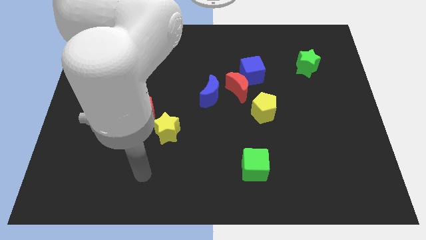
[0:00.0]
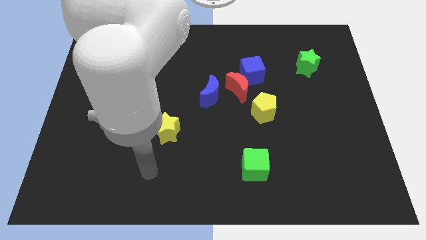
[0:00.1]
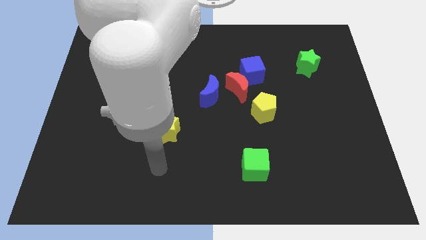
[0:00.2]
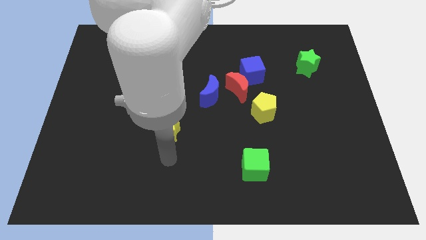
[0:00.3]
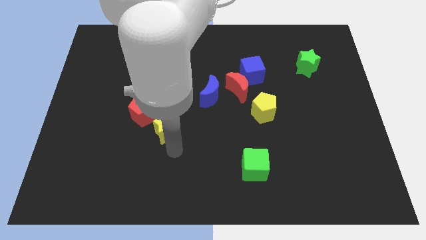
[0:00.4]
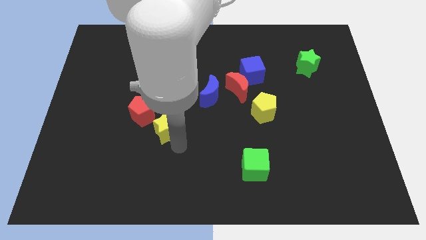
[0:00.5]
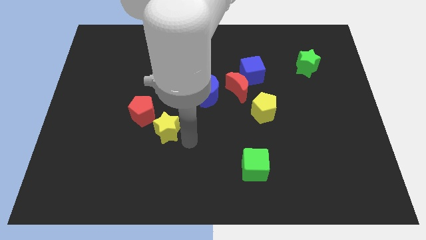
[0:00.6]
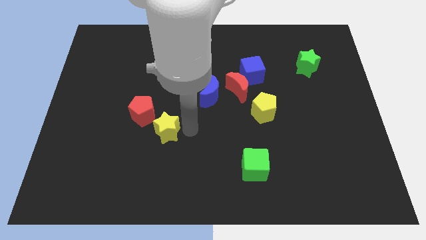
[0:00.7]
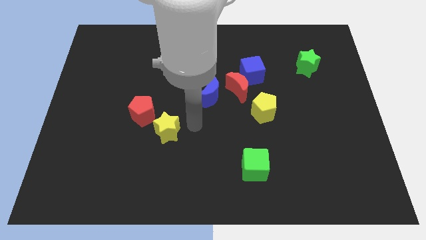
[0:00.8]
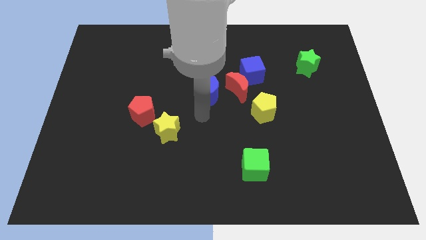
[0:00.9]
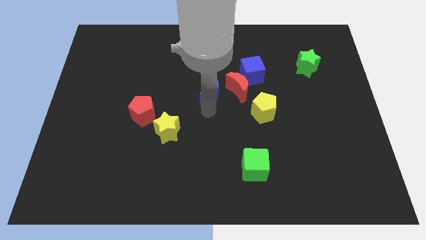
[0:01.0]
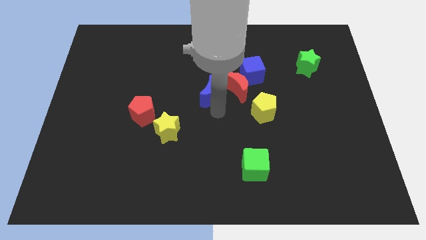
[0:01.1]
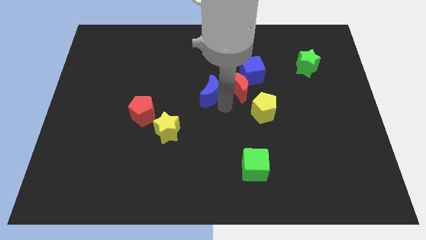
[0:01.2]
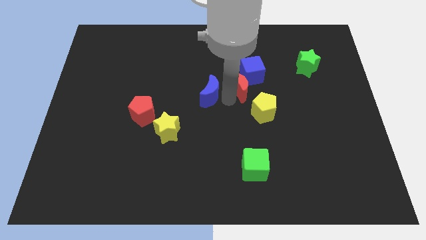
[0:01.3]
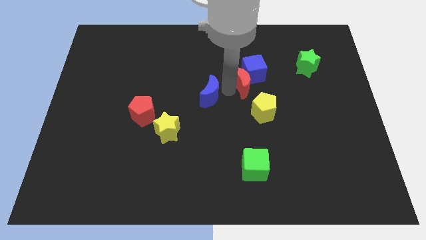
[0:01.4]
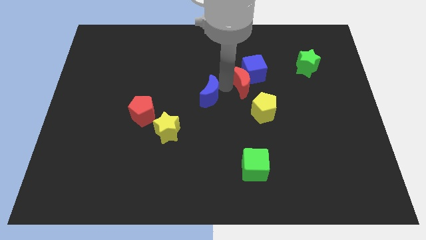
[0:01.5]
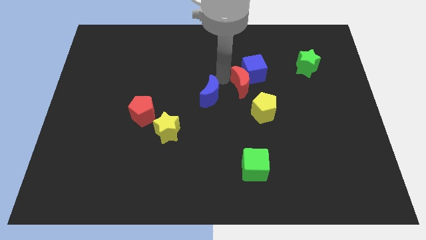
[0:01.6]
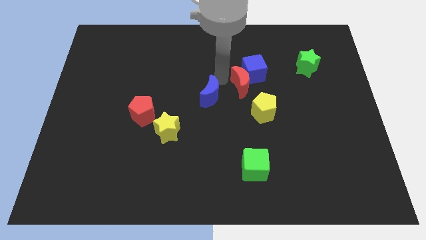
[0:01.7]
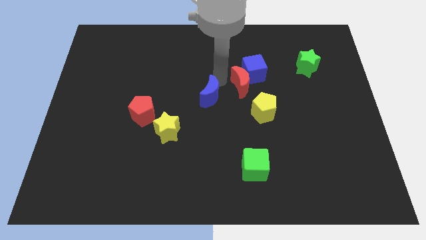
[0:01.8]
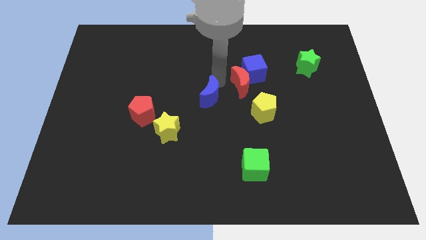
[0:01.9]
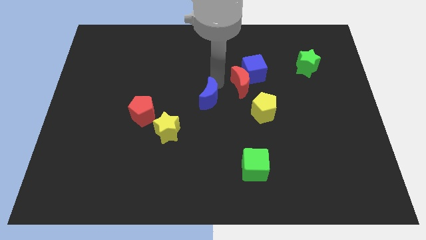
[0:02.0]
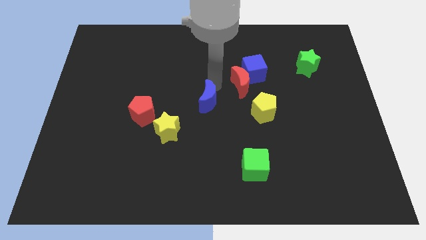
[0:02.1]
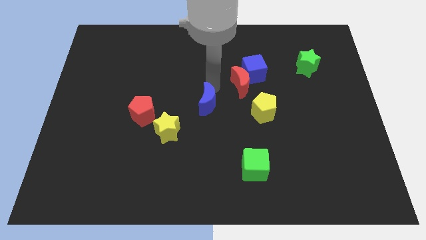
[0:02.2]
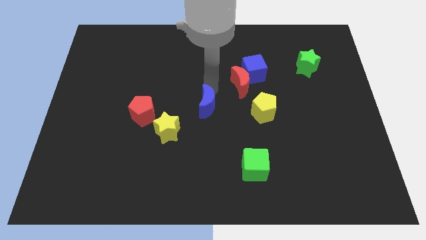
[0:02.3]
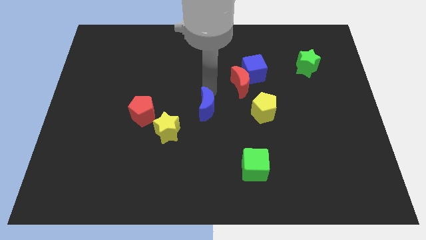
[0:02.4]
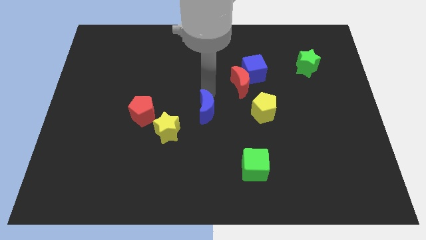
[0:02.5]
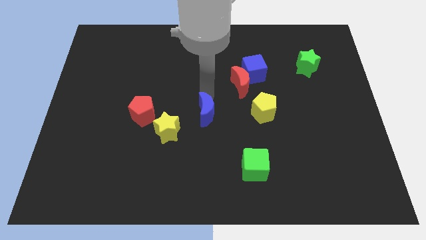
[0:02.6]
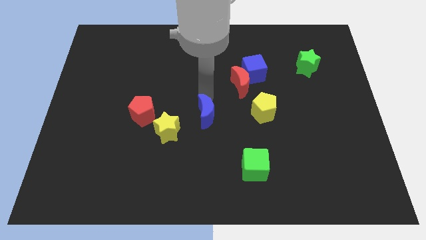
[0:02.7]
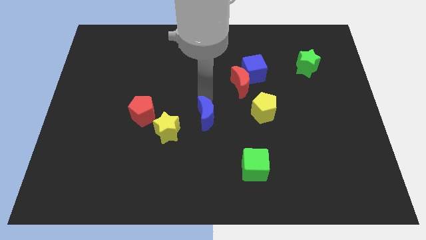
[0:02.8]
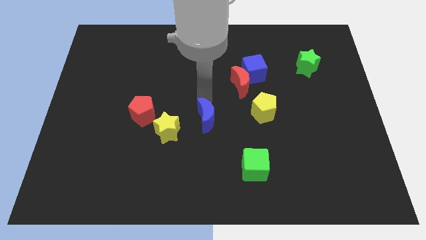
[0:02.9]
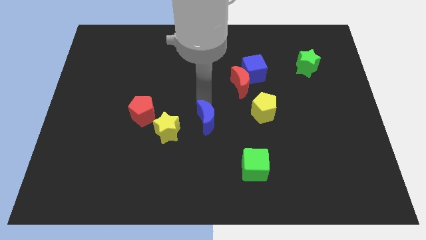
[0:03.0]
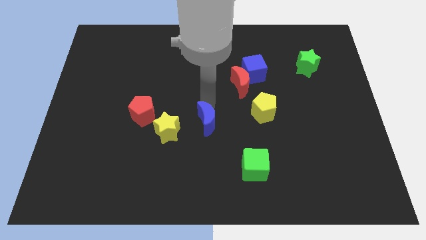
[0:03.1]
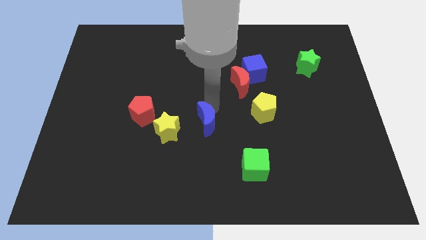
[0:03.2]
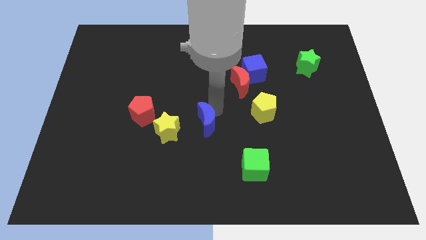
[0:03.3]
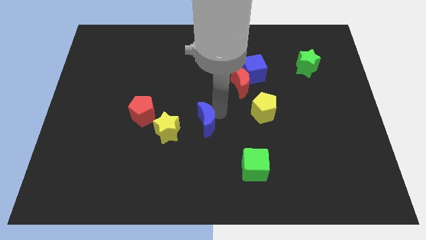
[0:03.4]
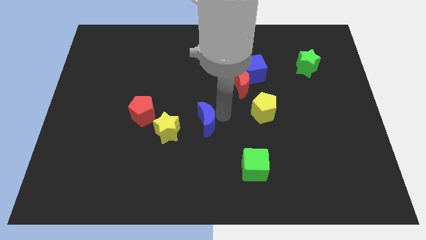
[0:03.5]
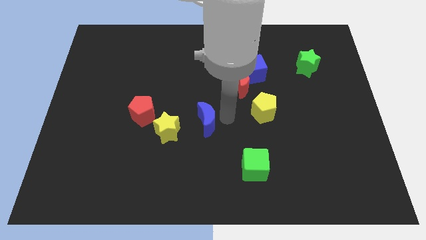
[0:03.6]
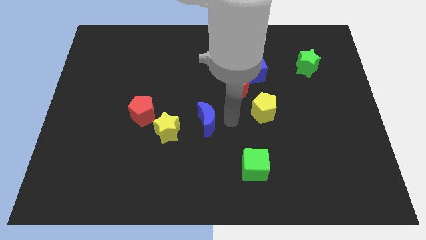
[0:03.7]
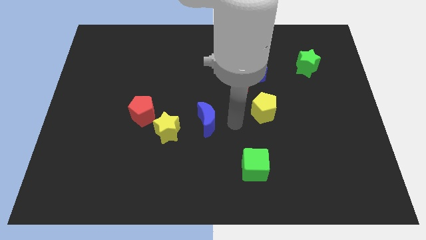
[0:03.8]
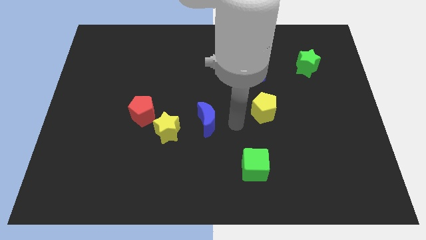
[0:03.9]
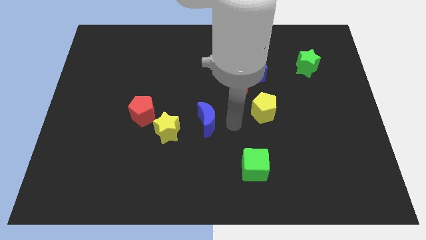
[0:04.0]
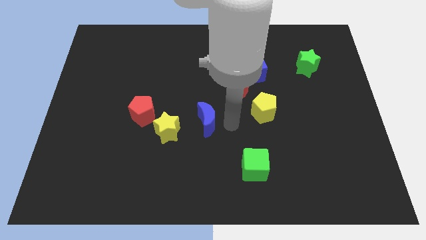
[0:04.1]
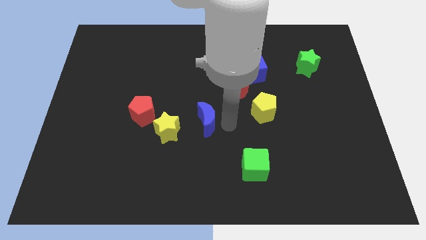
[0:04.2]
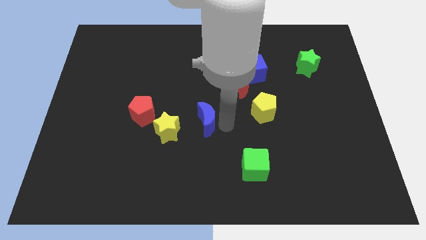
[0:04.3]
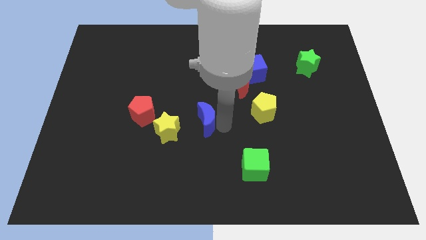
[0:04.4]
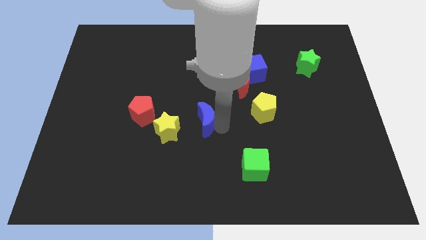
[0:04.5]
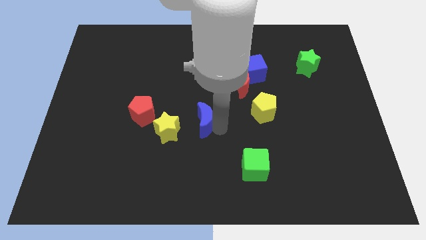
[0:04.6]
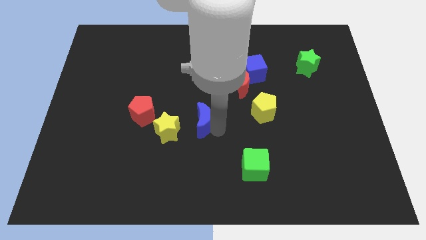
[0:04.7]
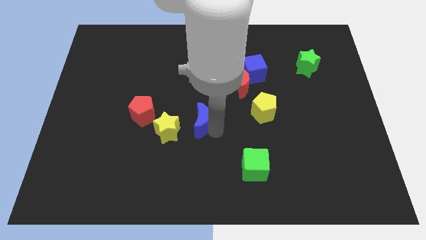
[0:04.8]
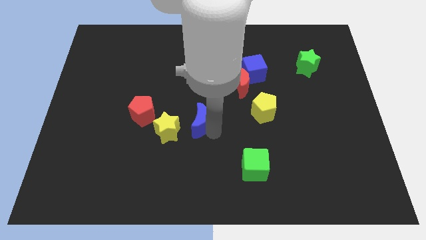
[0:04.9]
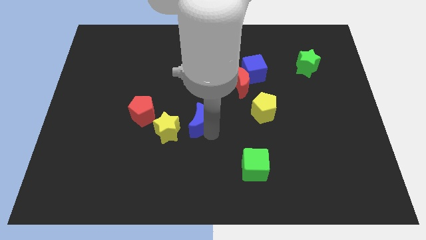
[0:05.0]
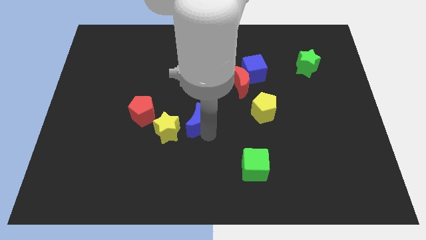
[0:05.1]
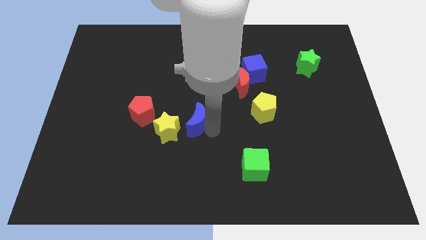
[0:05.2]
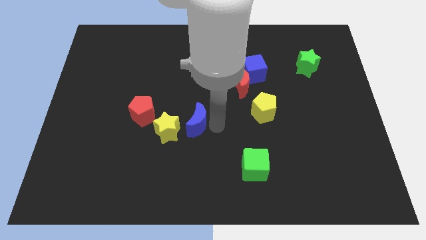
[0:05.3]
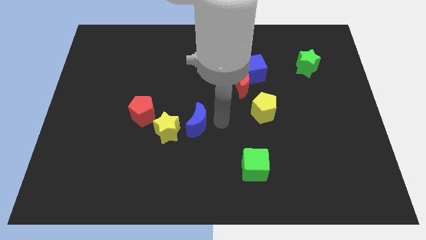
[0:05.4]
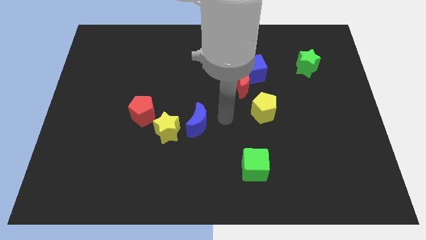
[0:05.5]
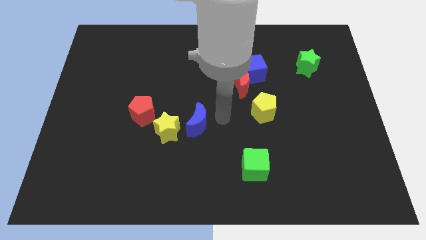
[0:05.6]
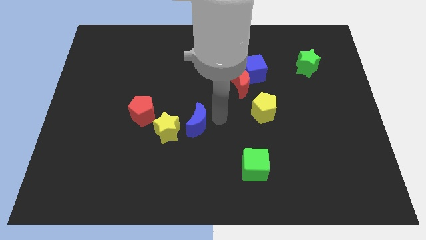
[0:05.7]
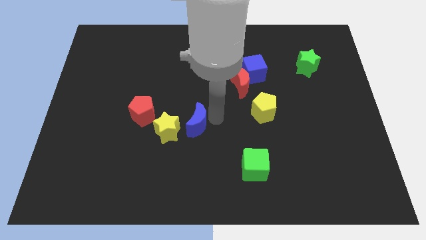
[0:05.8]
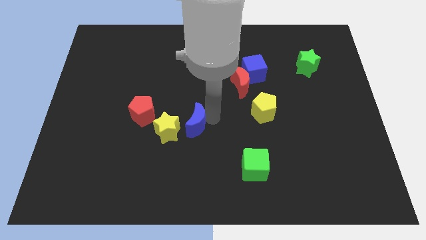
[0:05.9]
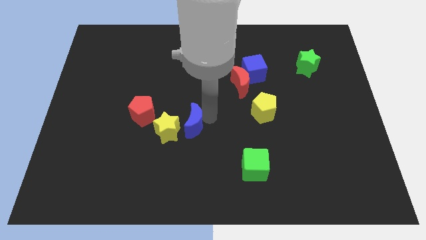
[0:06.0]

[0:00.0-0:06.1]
slide the blue moon next to the yellow star

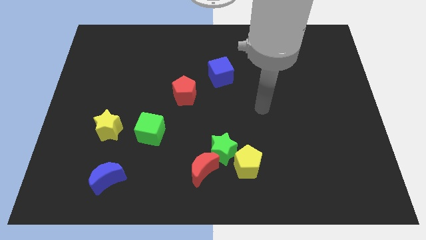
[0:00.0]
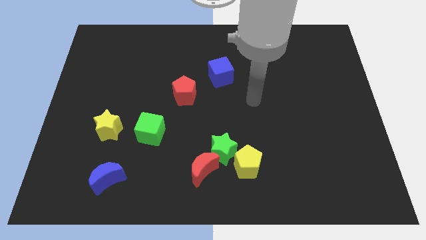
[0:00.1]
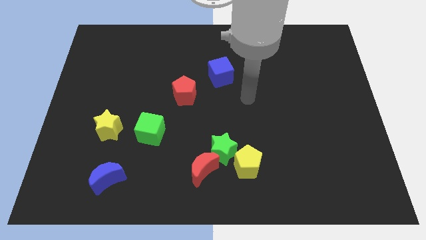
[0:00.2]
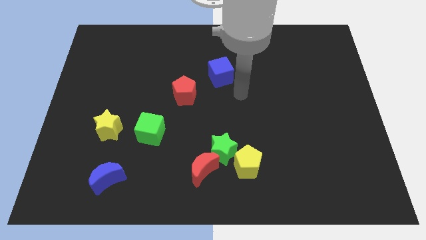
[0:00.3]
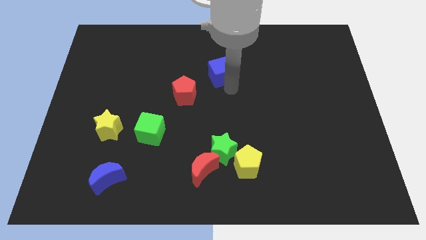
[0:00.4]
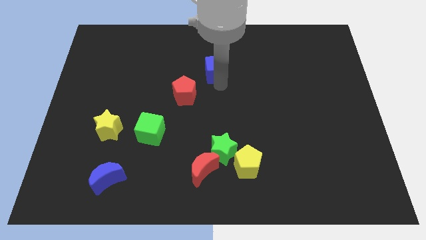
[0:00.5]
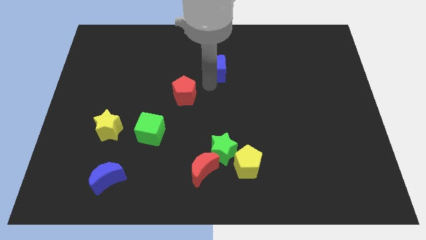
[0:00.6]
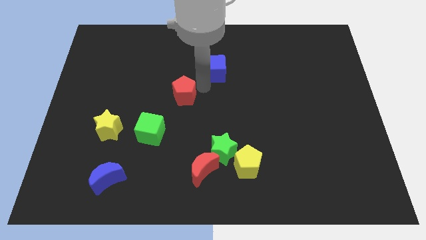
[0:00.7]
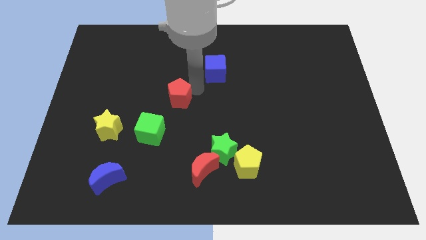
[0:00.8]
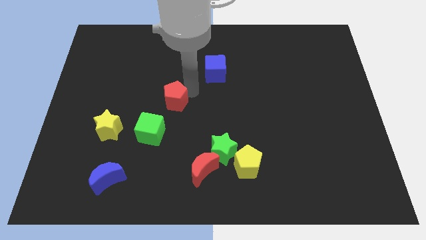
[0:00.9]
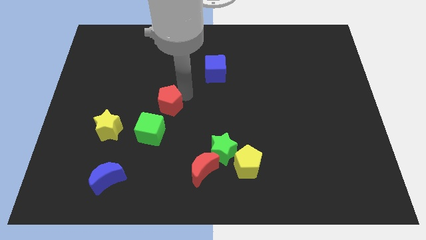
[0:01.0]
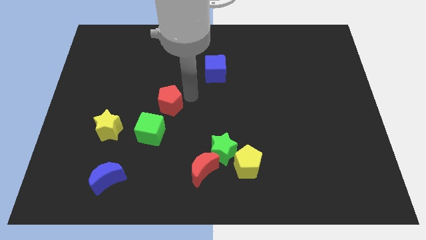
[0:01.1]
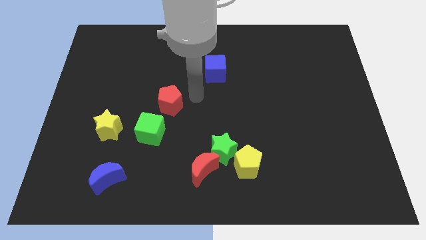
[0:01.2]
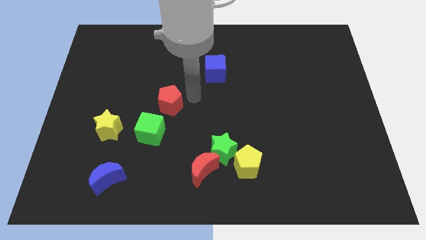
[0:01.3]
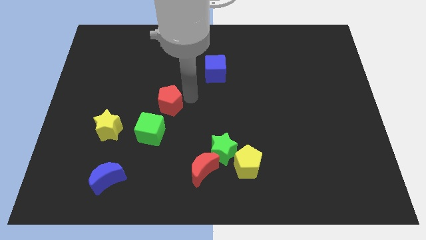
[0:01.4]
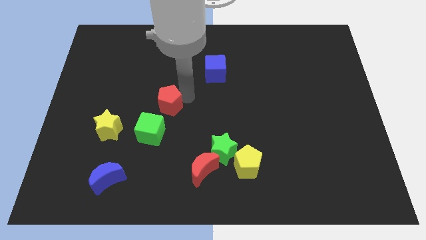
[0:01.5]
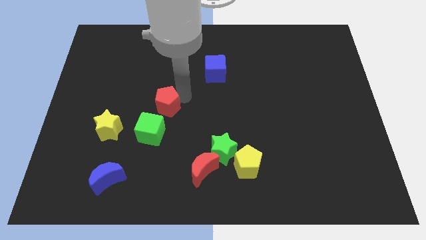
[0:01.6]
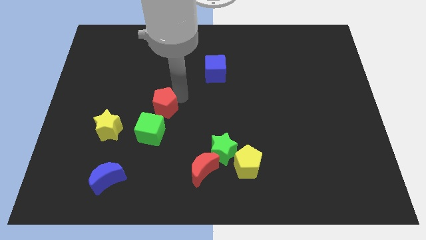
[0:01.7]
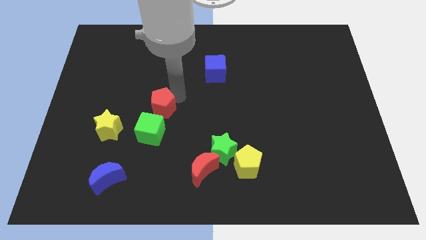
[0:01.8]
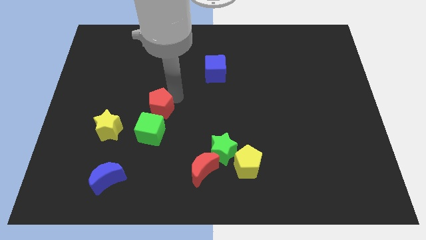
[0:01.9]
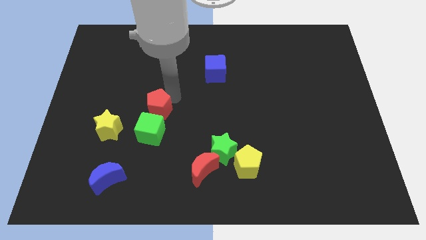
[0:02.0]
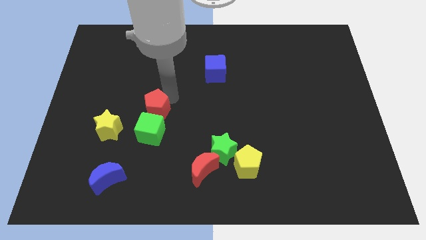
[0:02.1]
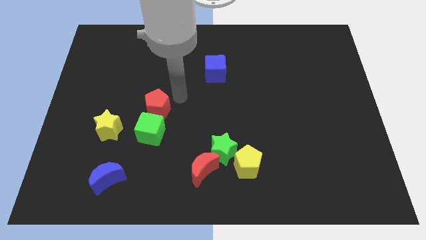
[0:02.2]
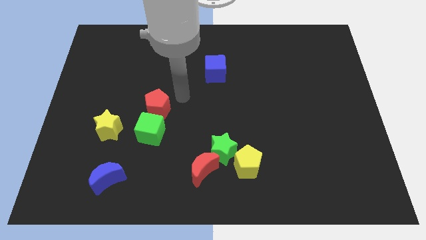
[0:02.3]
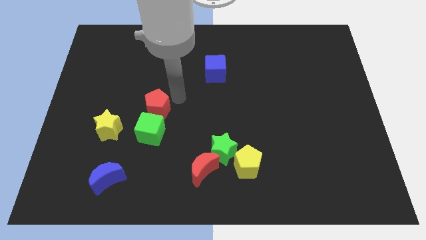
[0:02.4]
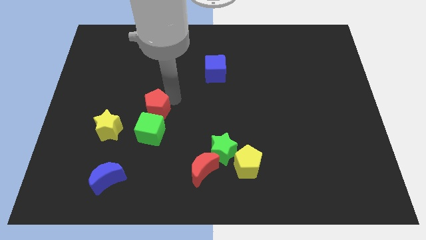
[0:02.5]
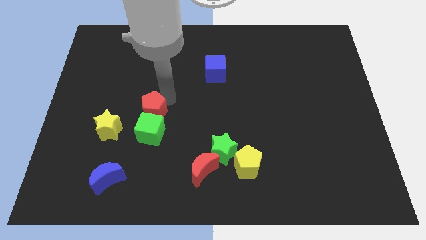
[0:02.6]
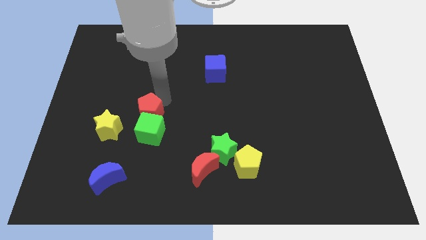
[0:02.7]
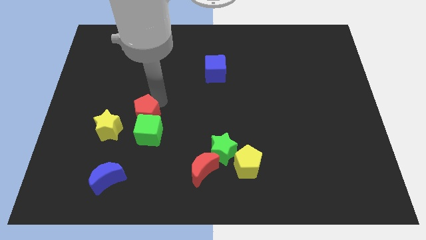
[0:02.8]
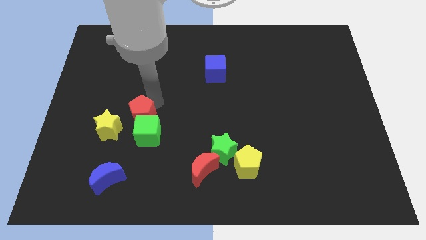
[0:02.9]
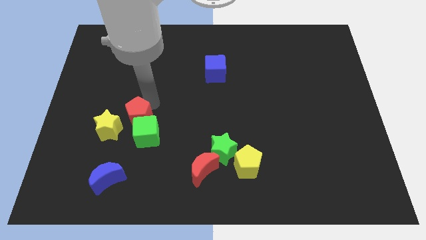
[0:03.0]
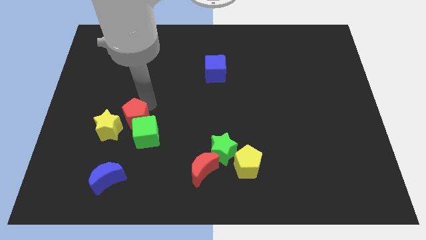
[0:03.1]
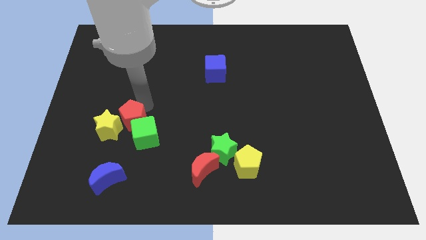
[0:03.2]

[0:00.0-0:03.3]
push the red pentagon next to the yellow star
